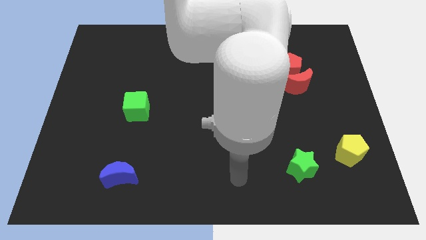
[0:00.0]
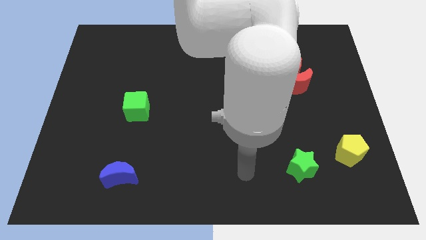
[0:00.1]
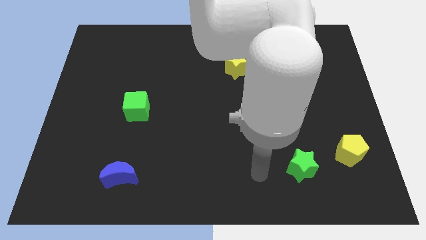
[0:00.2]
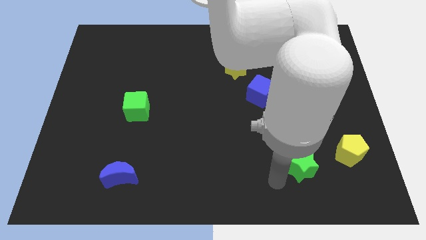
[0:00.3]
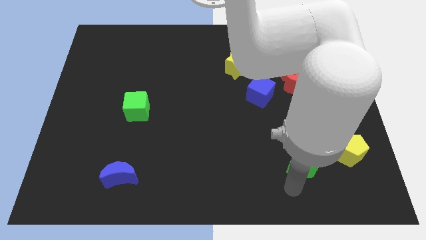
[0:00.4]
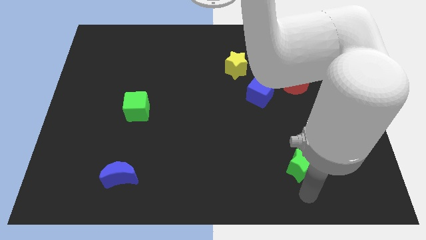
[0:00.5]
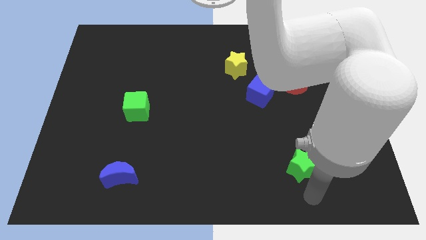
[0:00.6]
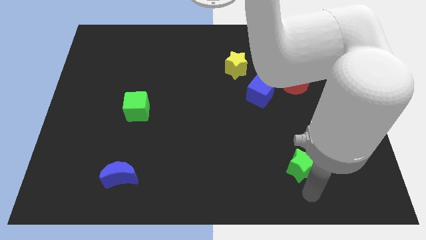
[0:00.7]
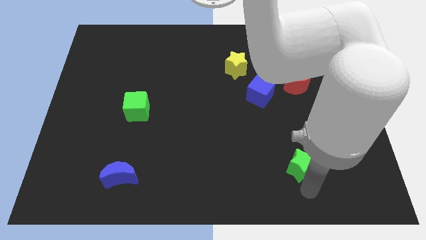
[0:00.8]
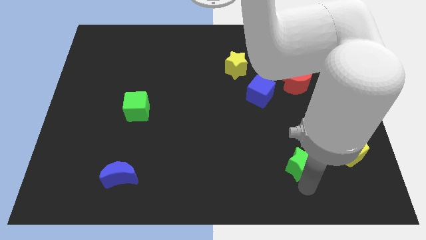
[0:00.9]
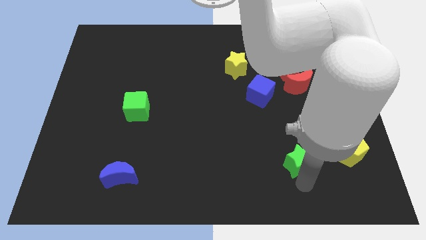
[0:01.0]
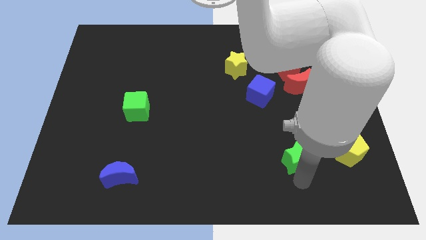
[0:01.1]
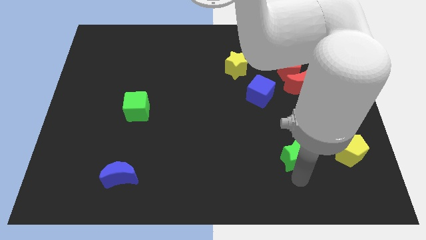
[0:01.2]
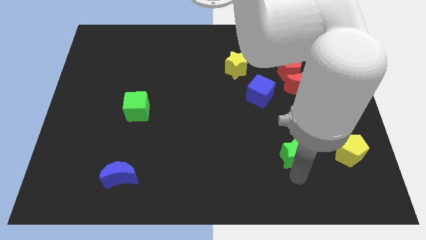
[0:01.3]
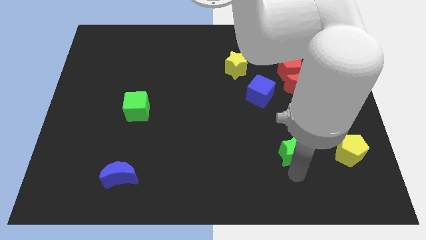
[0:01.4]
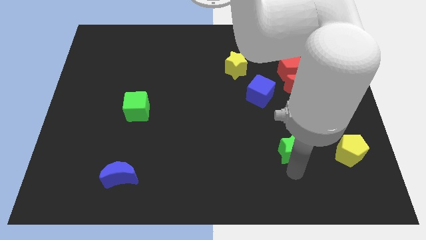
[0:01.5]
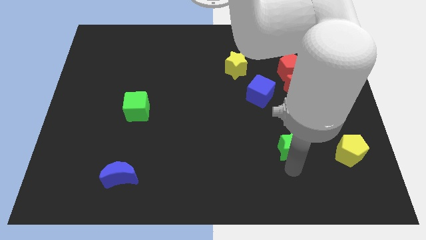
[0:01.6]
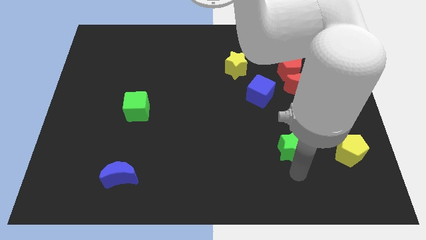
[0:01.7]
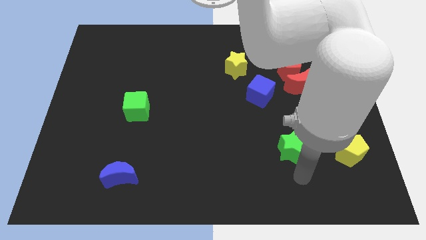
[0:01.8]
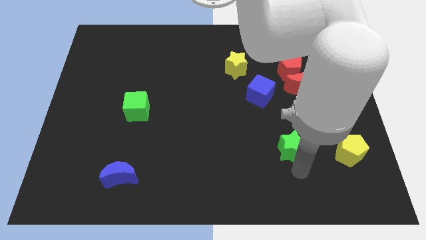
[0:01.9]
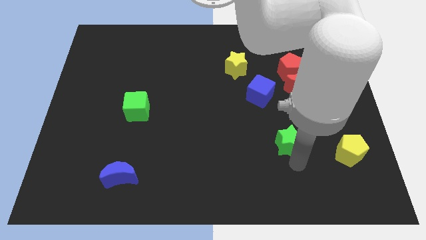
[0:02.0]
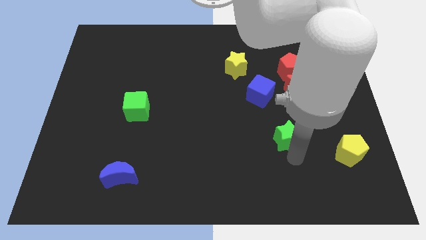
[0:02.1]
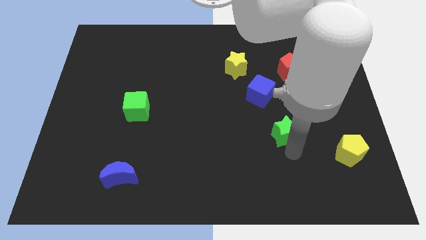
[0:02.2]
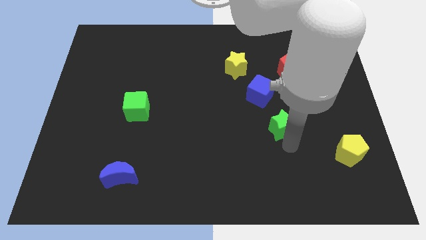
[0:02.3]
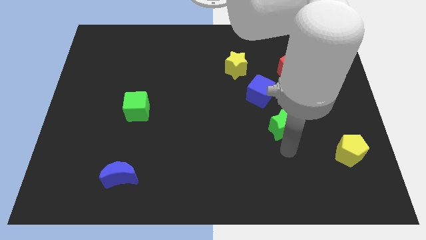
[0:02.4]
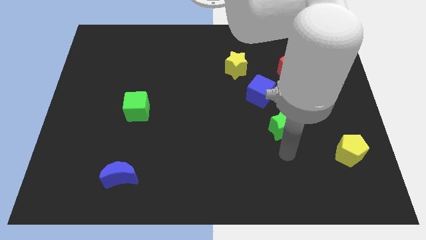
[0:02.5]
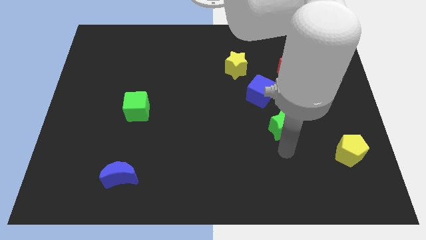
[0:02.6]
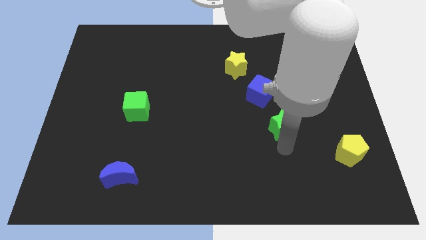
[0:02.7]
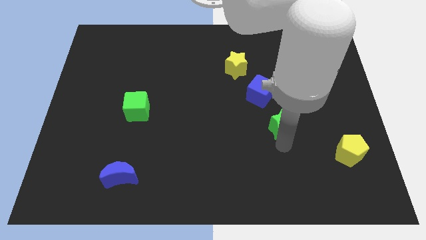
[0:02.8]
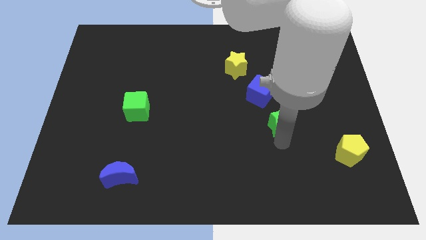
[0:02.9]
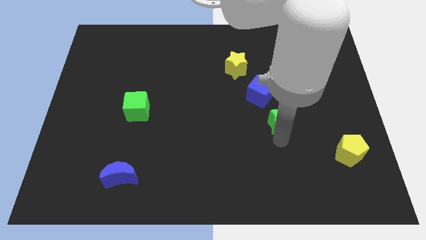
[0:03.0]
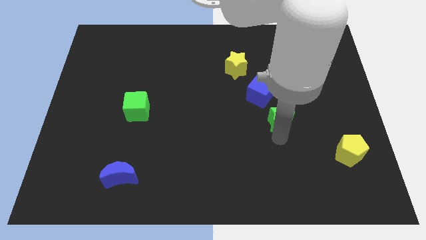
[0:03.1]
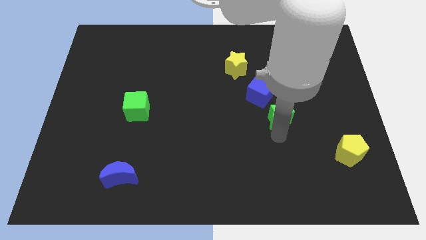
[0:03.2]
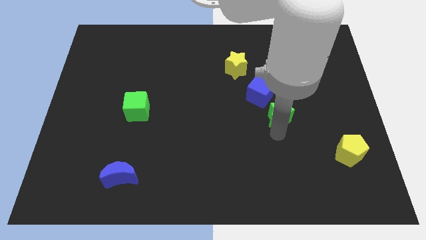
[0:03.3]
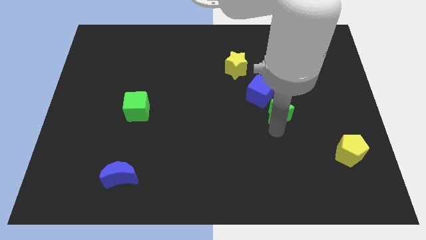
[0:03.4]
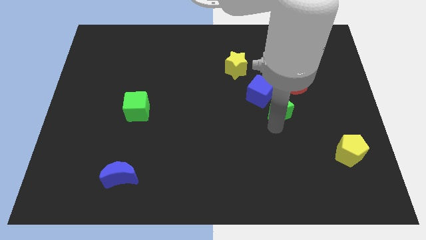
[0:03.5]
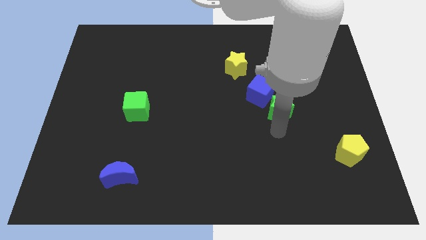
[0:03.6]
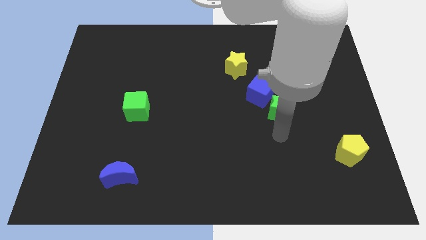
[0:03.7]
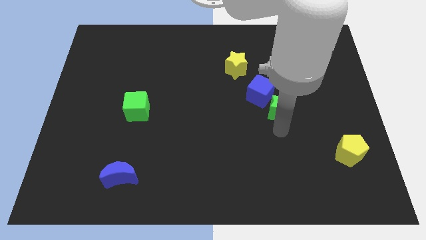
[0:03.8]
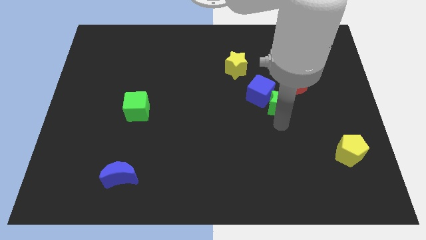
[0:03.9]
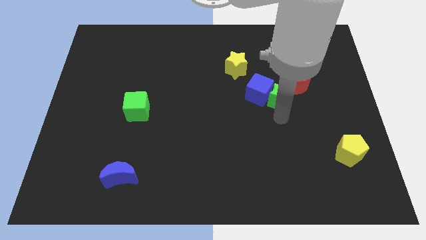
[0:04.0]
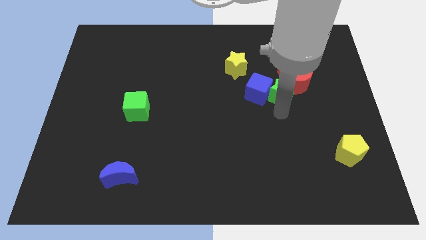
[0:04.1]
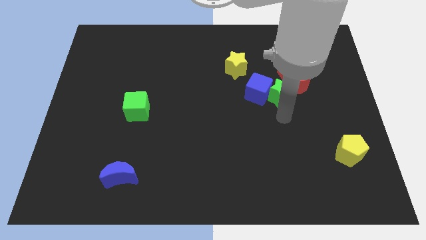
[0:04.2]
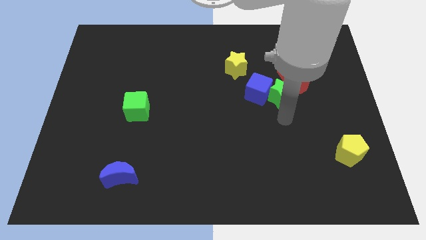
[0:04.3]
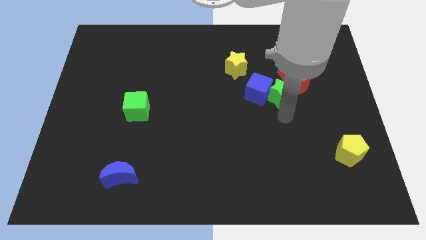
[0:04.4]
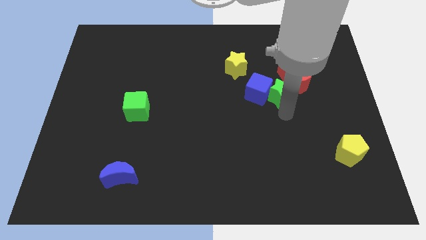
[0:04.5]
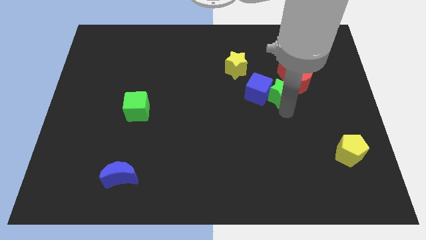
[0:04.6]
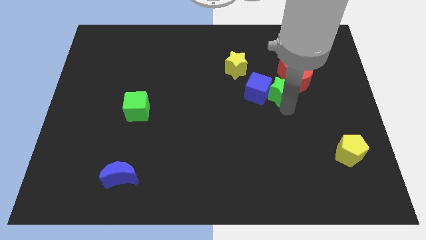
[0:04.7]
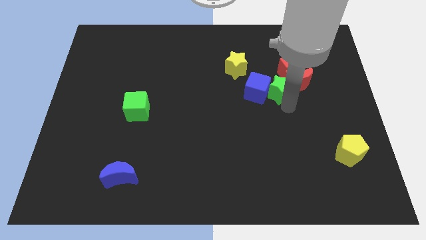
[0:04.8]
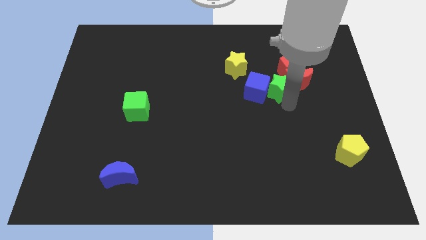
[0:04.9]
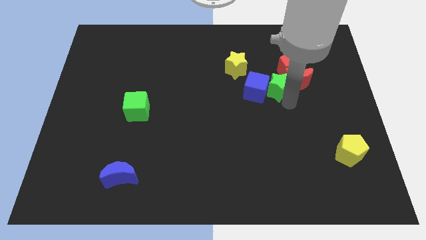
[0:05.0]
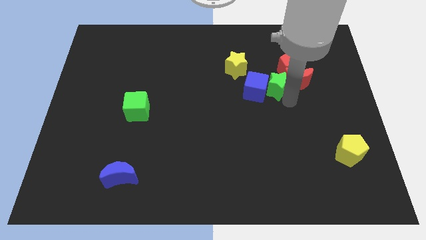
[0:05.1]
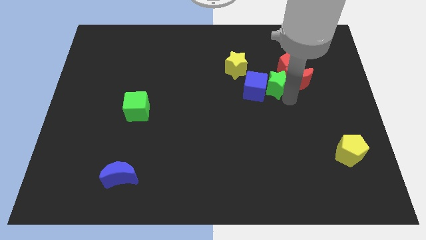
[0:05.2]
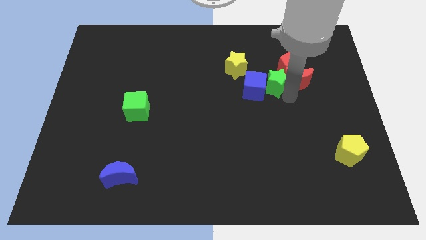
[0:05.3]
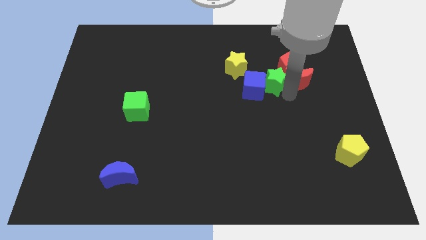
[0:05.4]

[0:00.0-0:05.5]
move the green star to the red pentagon

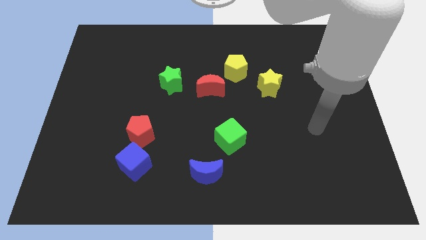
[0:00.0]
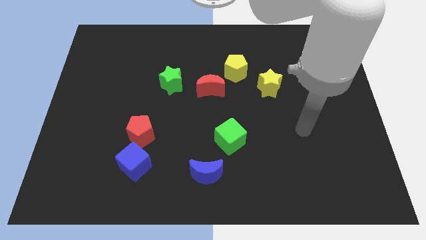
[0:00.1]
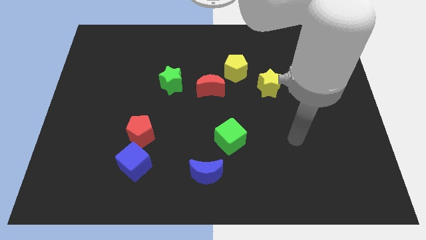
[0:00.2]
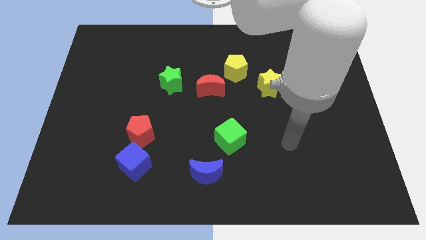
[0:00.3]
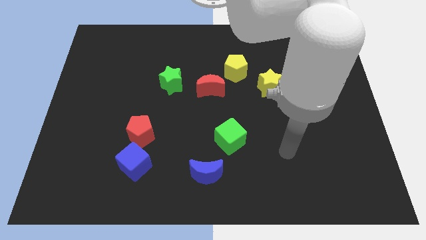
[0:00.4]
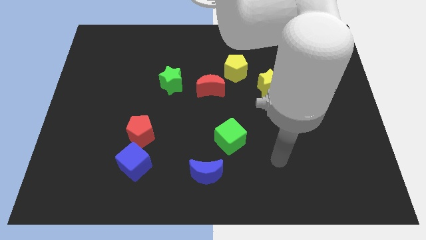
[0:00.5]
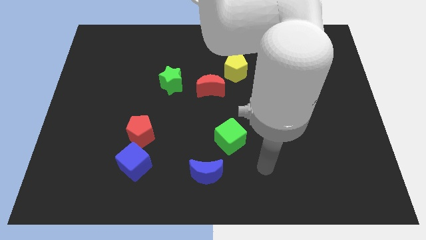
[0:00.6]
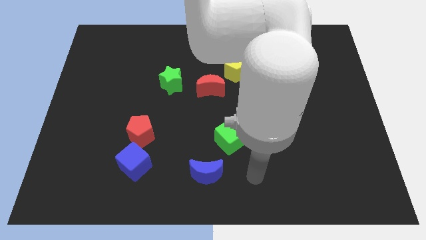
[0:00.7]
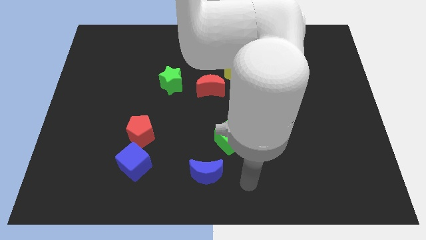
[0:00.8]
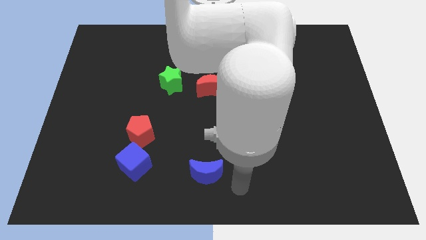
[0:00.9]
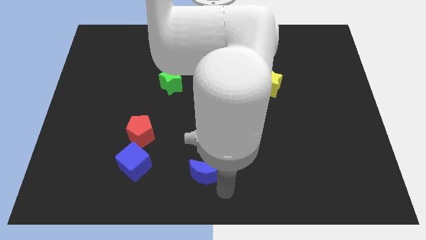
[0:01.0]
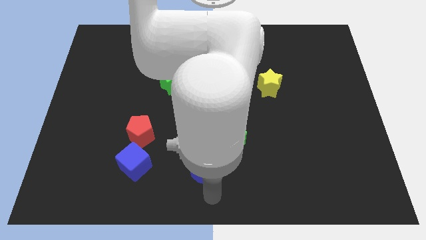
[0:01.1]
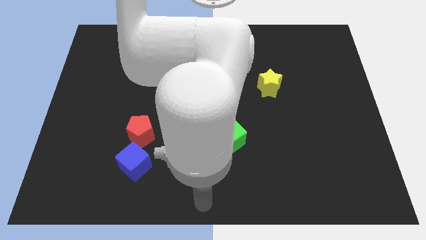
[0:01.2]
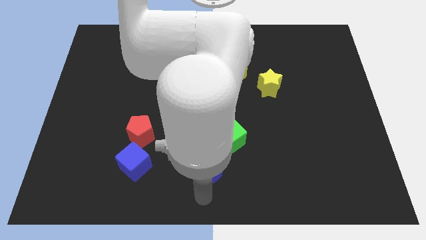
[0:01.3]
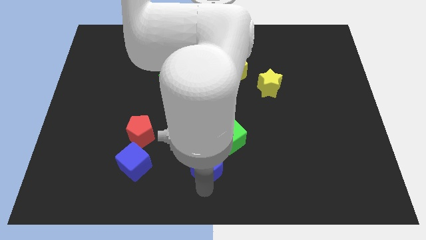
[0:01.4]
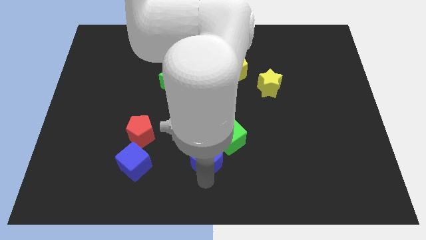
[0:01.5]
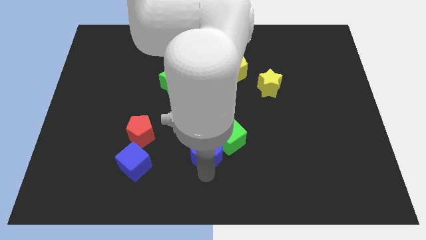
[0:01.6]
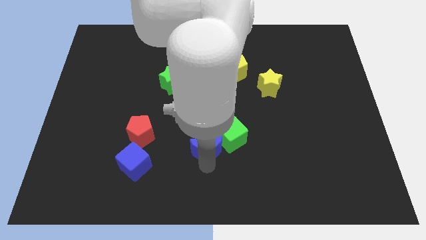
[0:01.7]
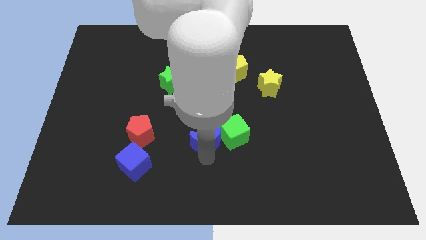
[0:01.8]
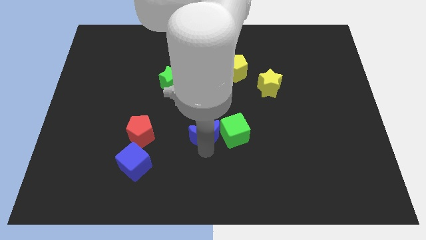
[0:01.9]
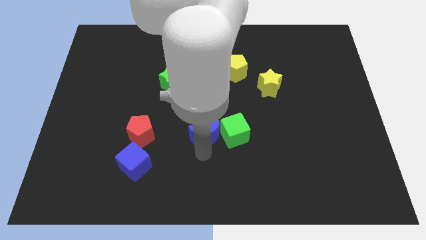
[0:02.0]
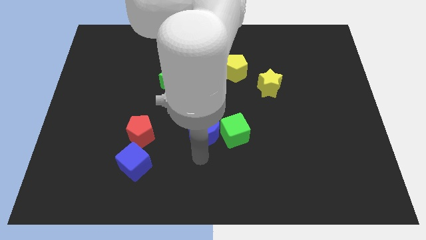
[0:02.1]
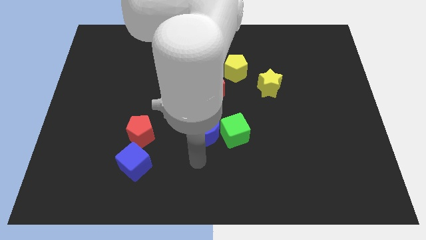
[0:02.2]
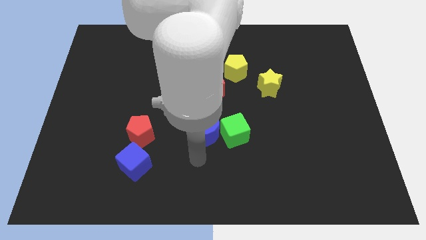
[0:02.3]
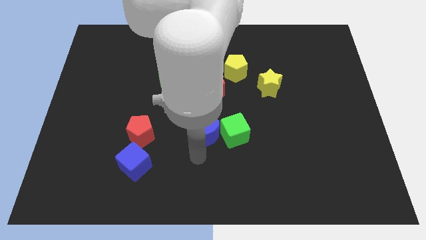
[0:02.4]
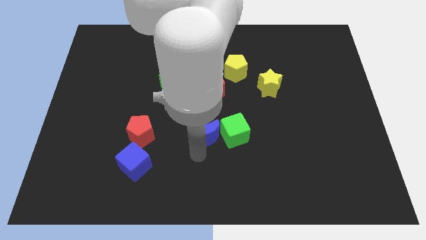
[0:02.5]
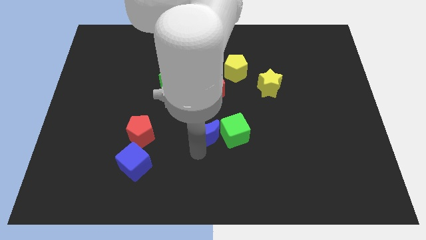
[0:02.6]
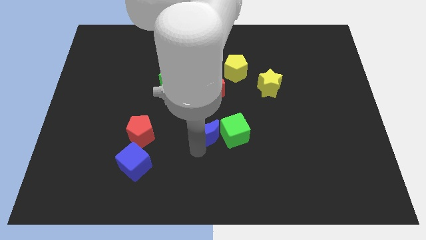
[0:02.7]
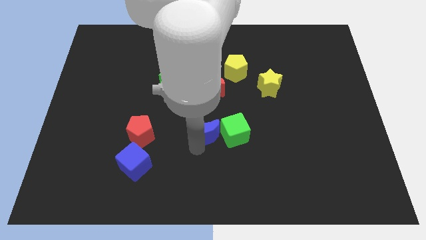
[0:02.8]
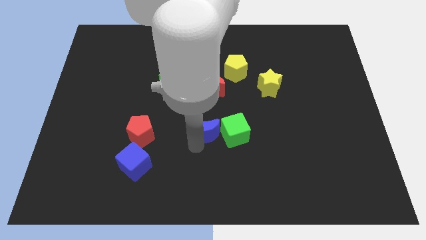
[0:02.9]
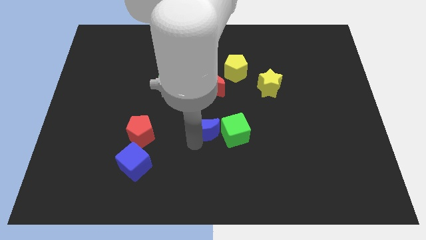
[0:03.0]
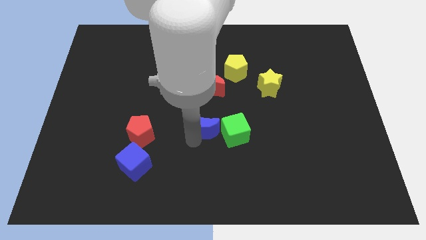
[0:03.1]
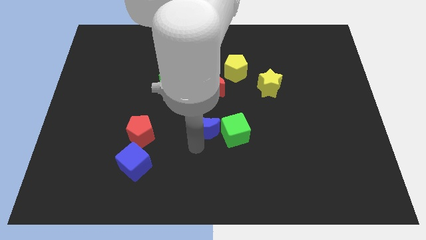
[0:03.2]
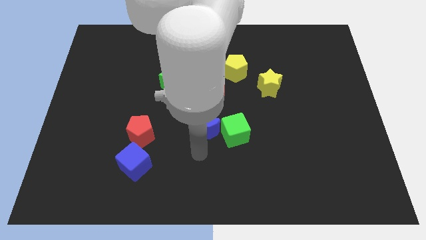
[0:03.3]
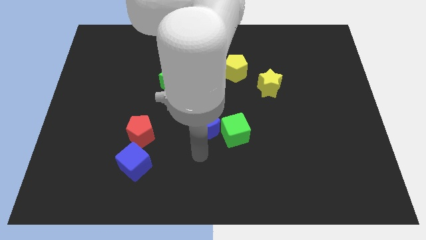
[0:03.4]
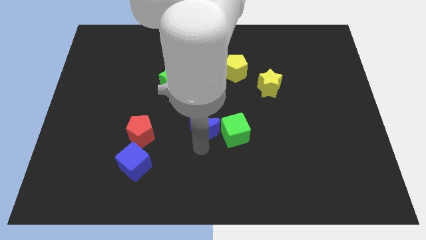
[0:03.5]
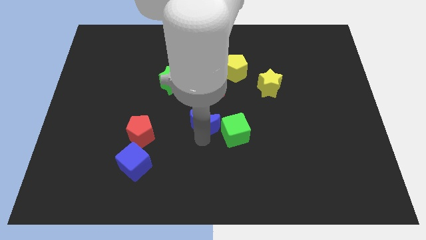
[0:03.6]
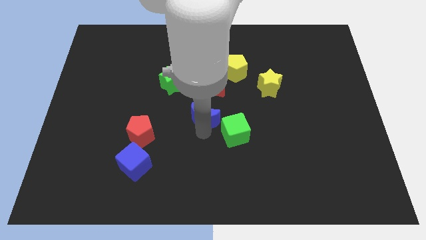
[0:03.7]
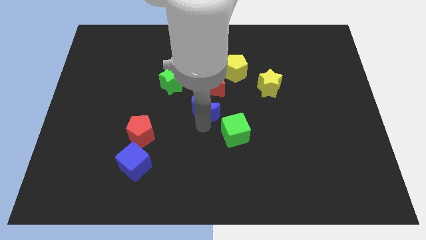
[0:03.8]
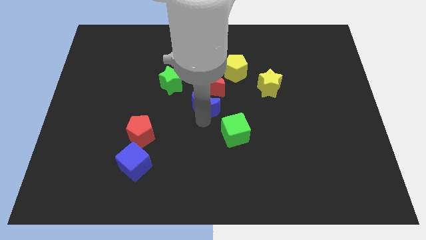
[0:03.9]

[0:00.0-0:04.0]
move the blue moon to the red moon
